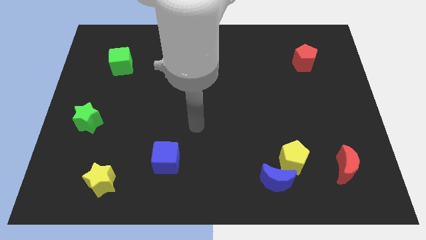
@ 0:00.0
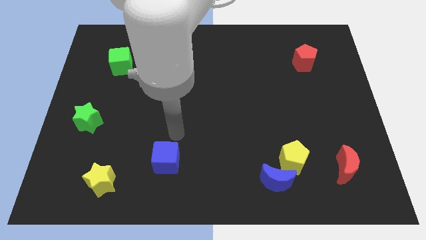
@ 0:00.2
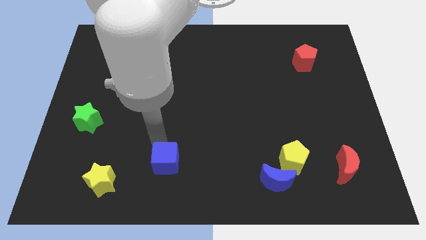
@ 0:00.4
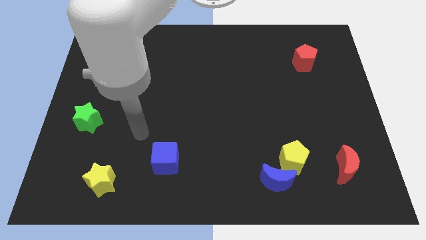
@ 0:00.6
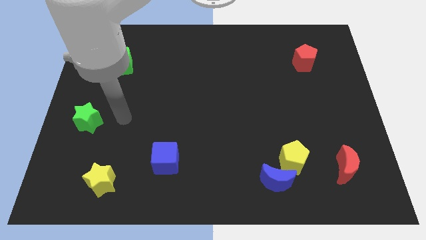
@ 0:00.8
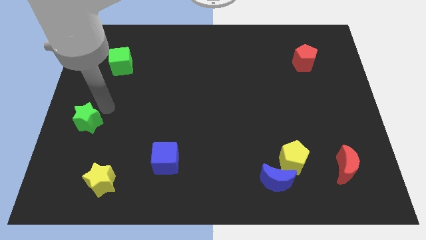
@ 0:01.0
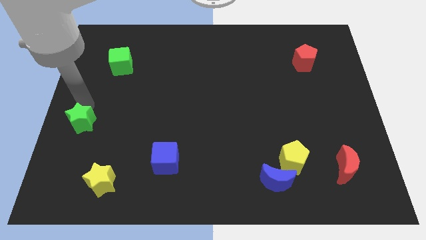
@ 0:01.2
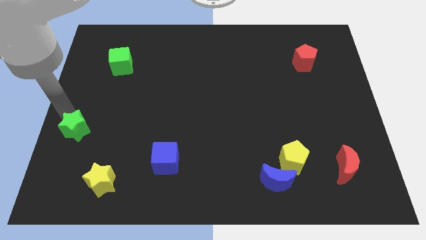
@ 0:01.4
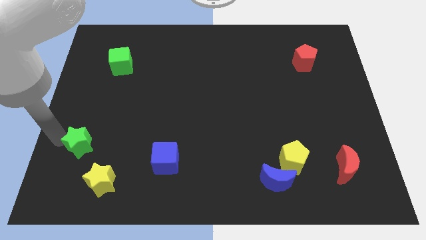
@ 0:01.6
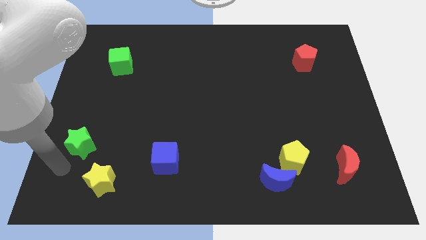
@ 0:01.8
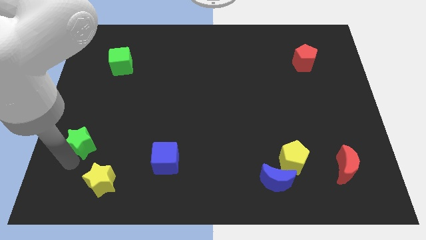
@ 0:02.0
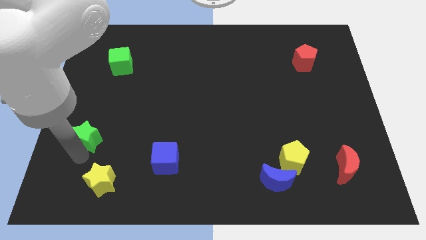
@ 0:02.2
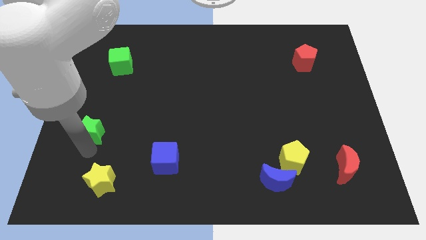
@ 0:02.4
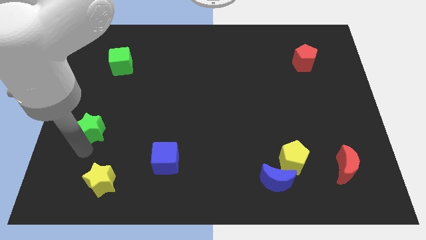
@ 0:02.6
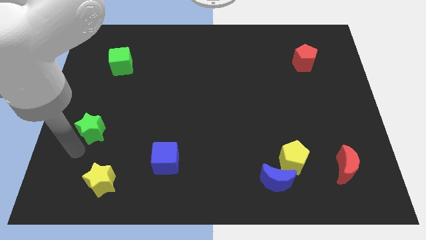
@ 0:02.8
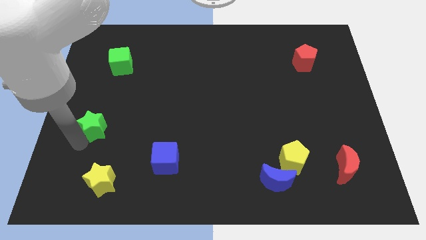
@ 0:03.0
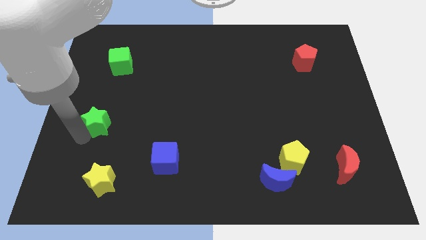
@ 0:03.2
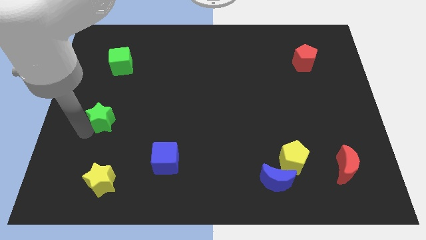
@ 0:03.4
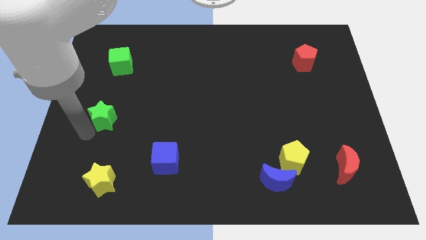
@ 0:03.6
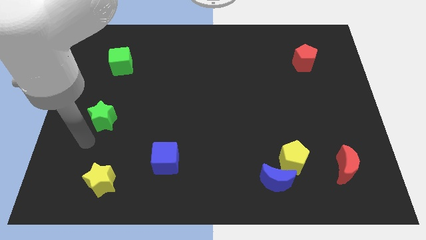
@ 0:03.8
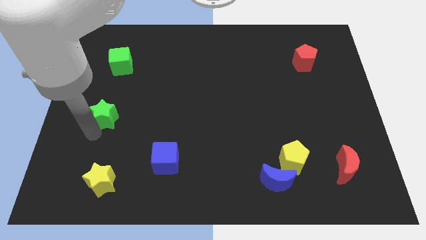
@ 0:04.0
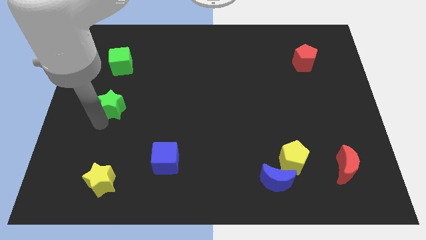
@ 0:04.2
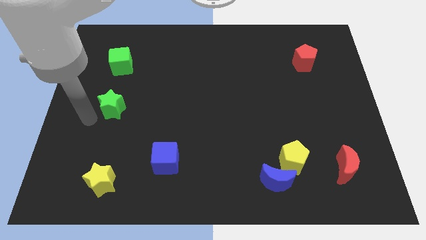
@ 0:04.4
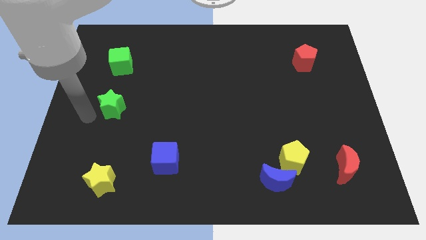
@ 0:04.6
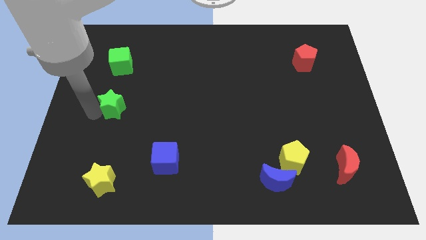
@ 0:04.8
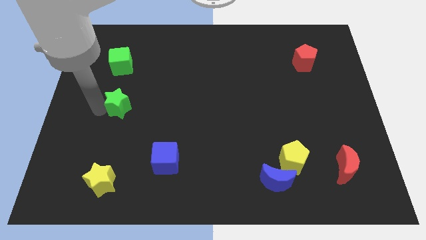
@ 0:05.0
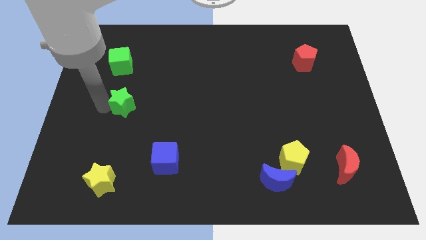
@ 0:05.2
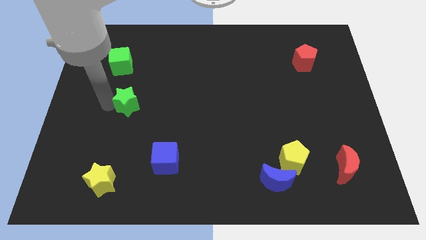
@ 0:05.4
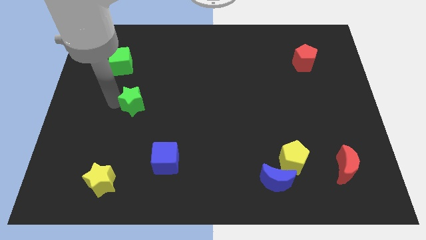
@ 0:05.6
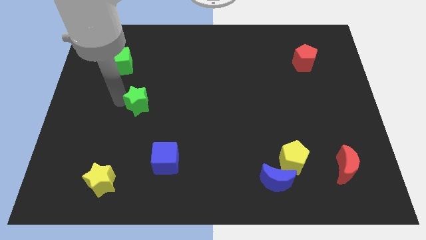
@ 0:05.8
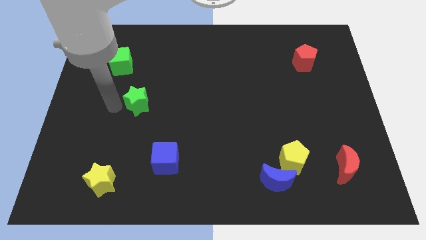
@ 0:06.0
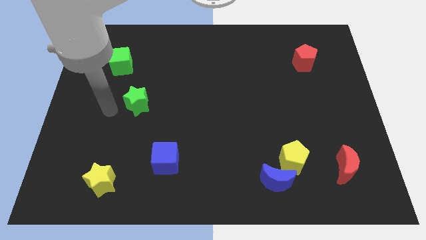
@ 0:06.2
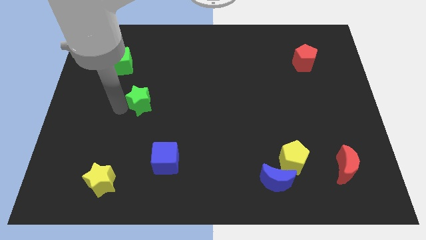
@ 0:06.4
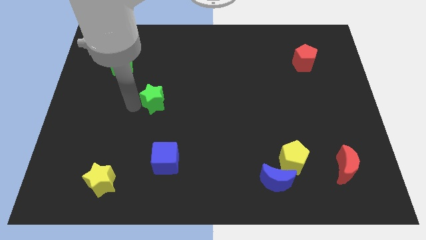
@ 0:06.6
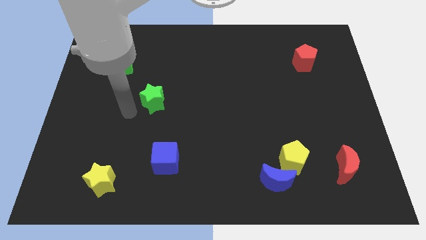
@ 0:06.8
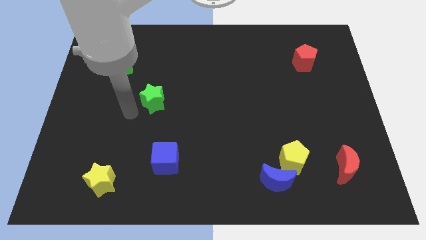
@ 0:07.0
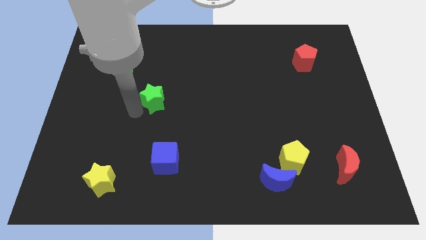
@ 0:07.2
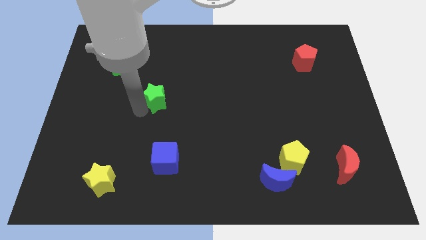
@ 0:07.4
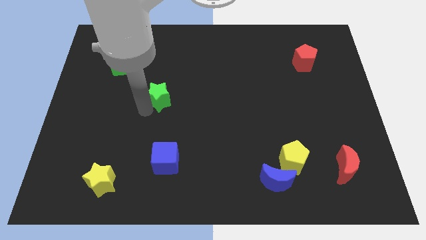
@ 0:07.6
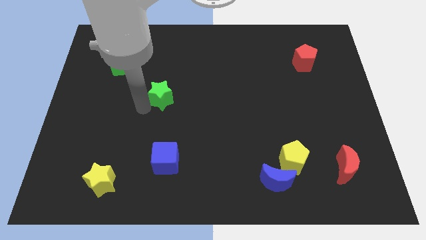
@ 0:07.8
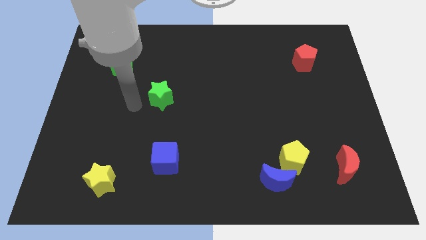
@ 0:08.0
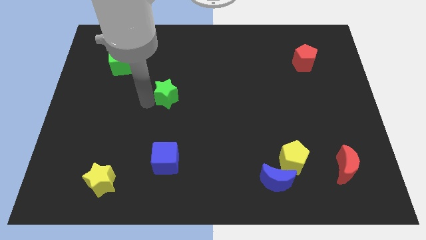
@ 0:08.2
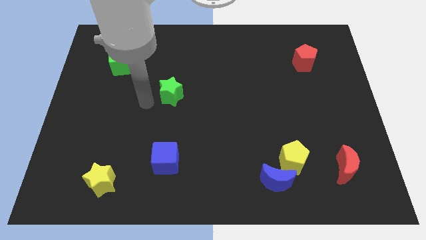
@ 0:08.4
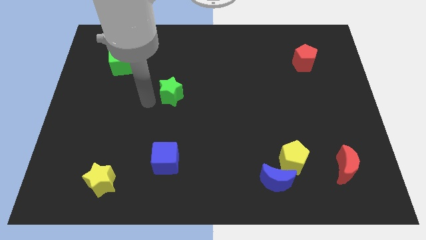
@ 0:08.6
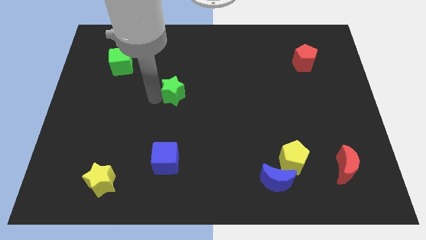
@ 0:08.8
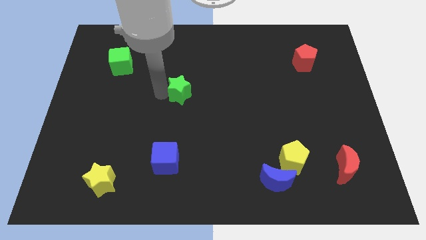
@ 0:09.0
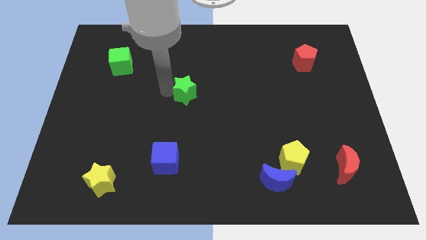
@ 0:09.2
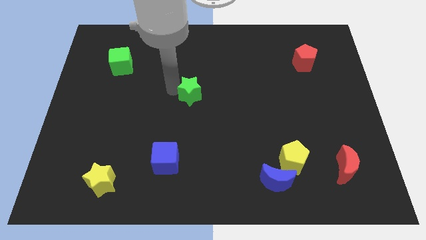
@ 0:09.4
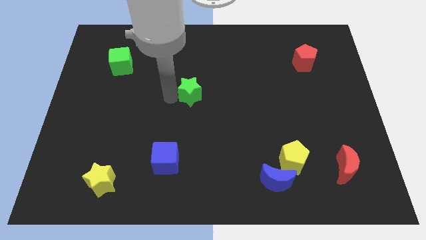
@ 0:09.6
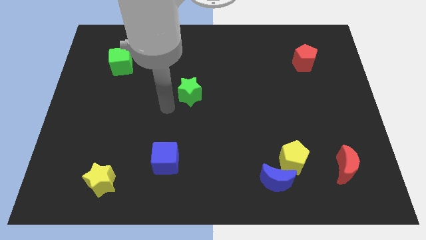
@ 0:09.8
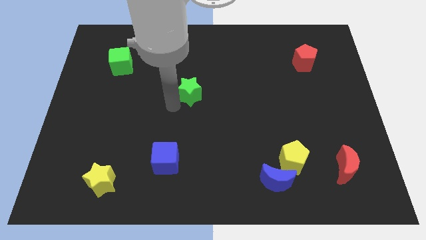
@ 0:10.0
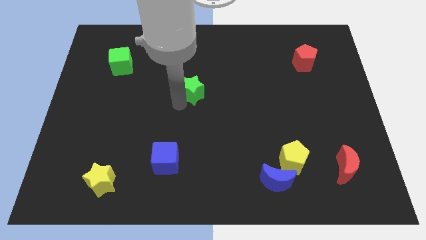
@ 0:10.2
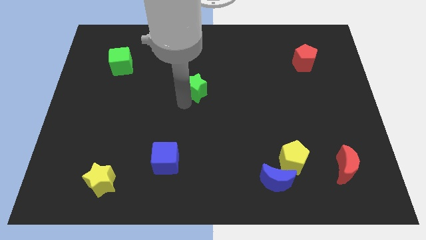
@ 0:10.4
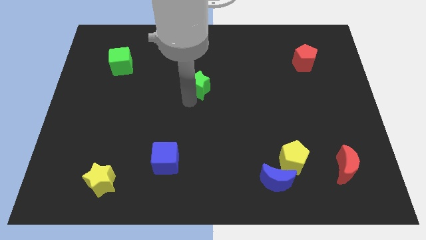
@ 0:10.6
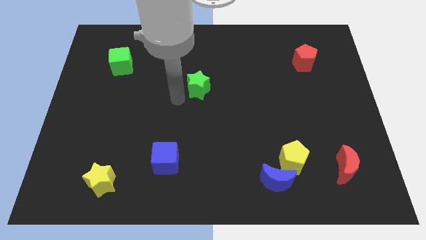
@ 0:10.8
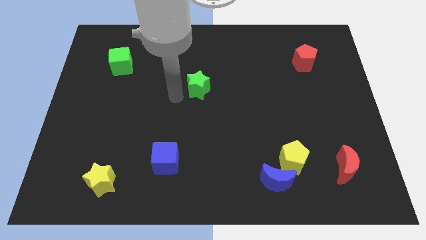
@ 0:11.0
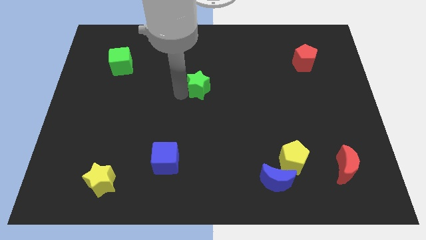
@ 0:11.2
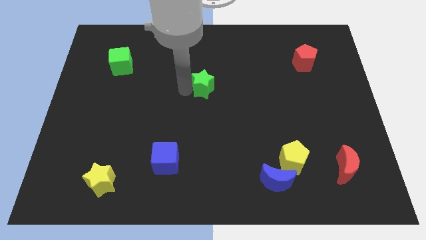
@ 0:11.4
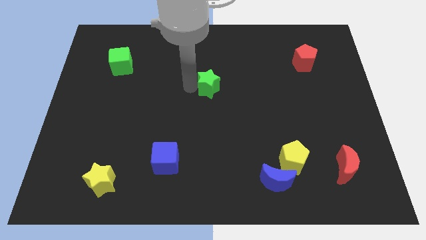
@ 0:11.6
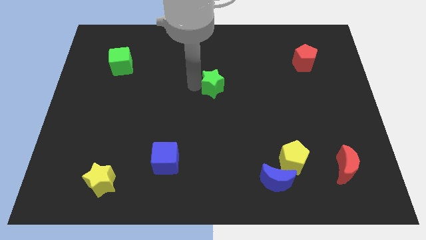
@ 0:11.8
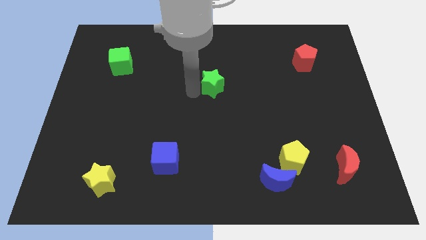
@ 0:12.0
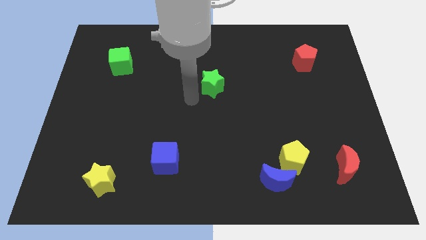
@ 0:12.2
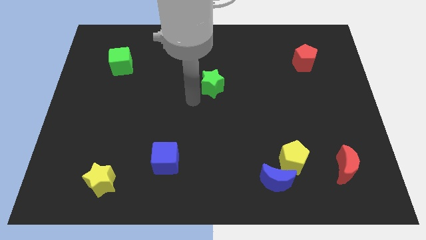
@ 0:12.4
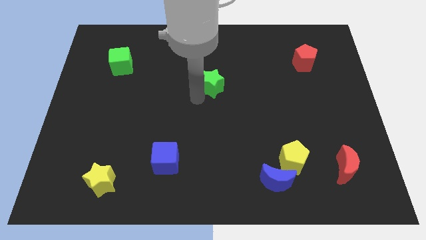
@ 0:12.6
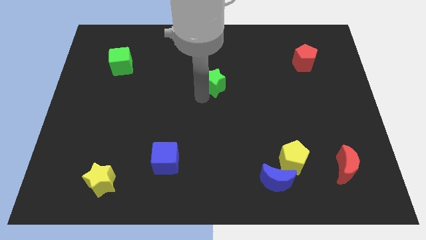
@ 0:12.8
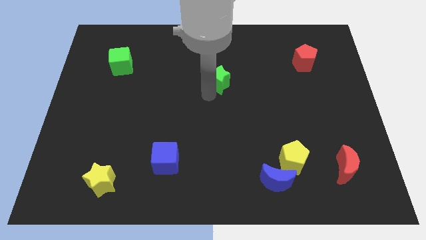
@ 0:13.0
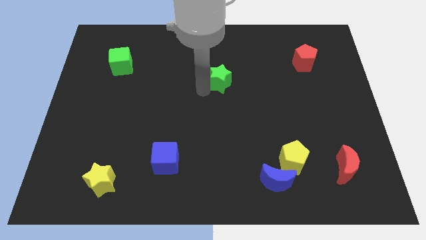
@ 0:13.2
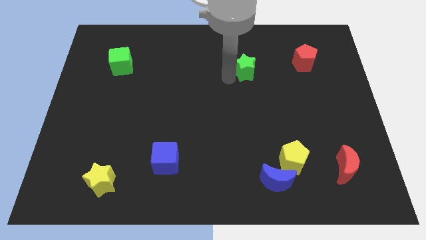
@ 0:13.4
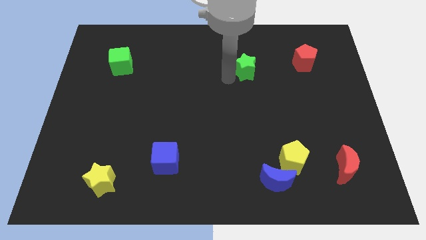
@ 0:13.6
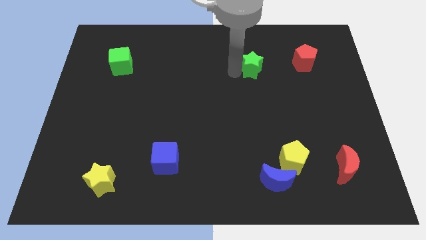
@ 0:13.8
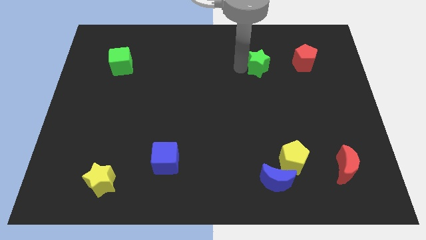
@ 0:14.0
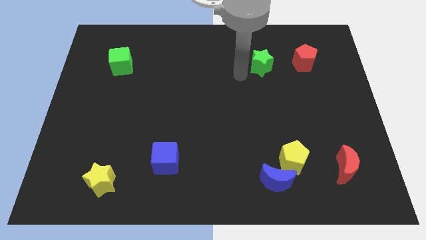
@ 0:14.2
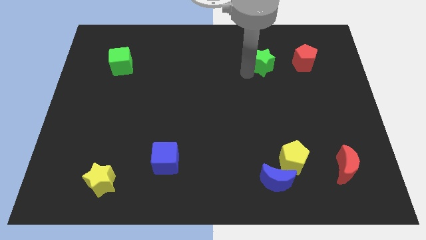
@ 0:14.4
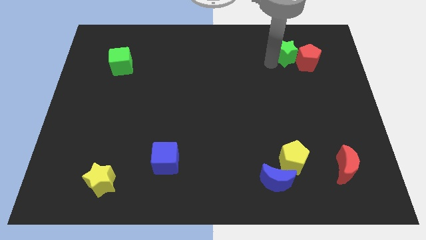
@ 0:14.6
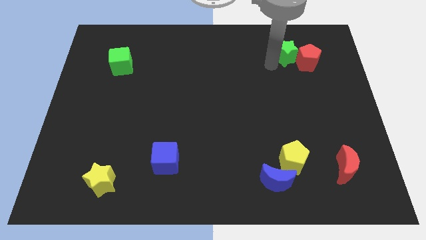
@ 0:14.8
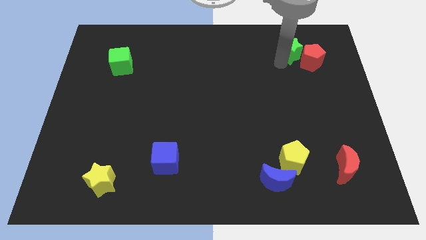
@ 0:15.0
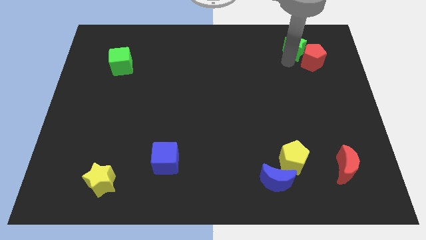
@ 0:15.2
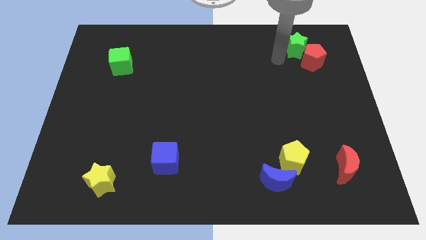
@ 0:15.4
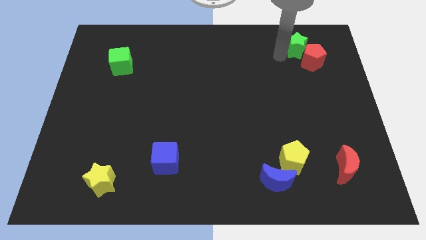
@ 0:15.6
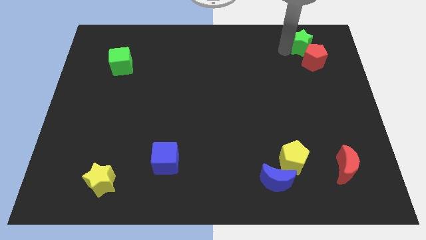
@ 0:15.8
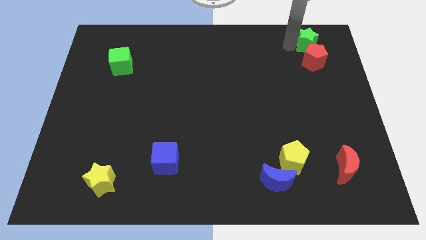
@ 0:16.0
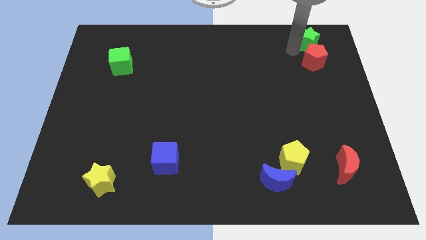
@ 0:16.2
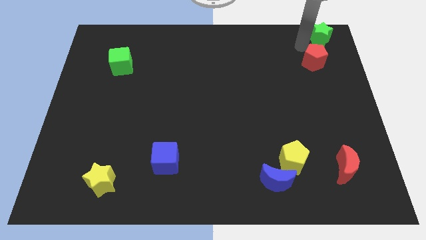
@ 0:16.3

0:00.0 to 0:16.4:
slide the green star to the top right
